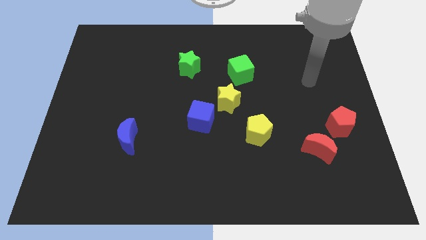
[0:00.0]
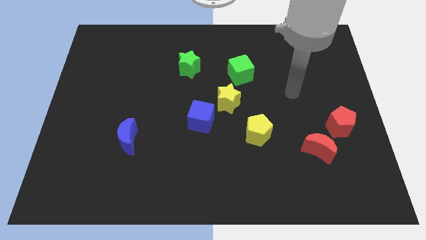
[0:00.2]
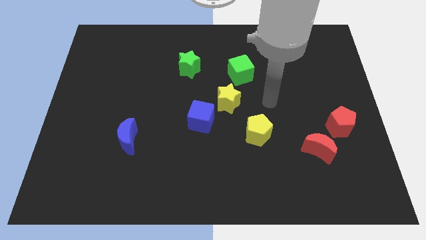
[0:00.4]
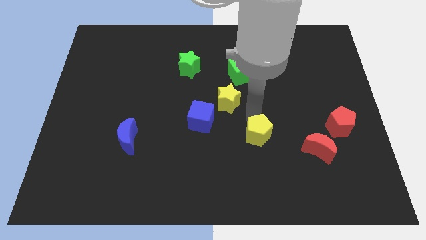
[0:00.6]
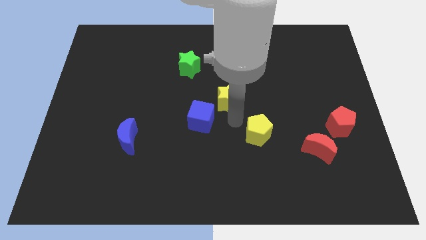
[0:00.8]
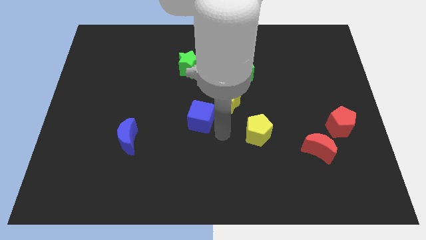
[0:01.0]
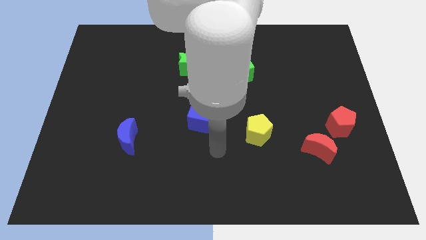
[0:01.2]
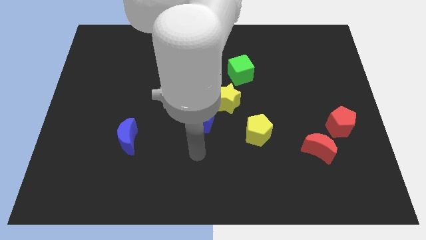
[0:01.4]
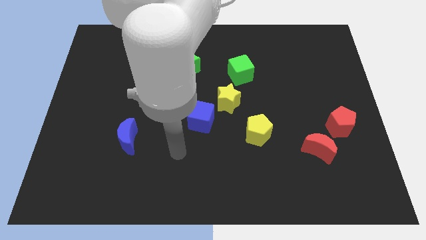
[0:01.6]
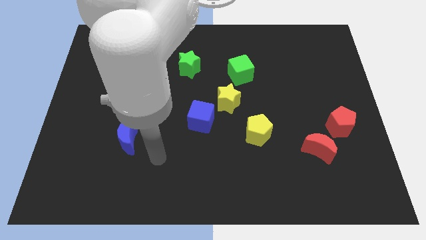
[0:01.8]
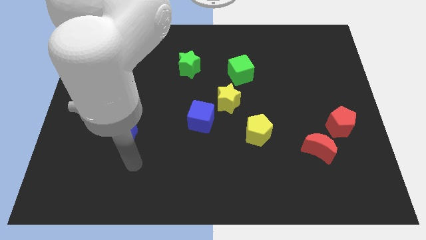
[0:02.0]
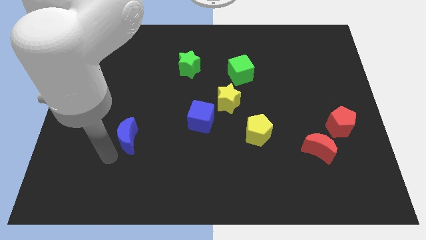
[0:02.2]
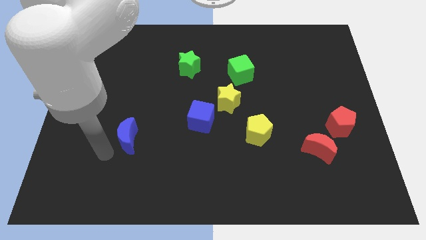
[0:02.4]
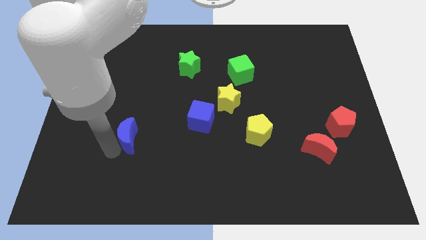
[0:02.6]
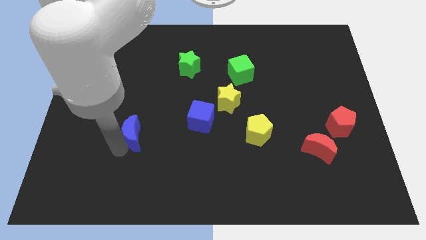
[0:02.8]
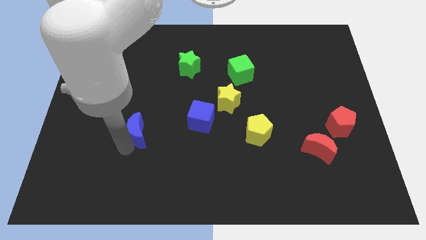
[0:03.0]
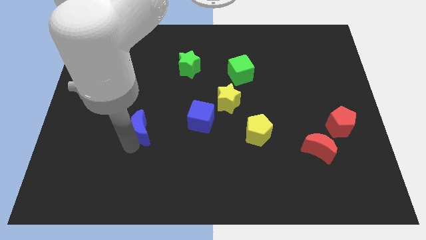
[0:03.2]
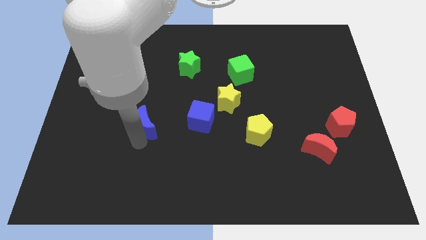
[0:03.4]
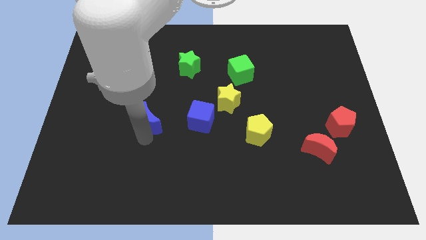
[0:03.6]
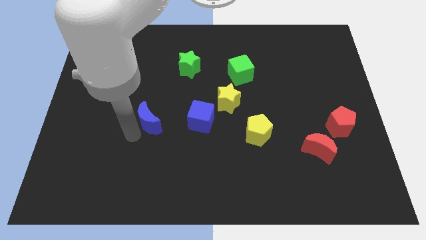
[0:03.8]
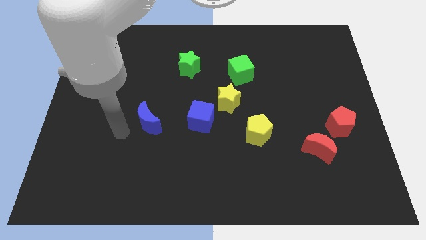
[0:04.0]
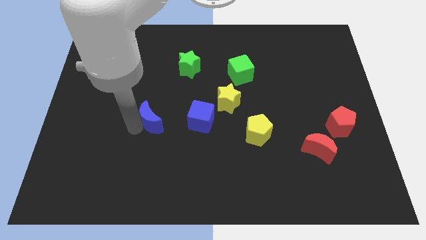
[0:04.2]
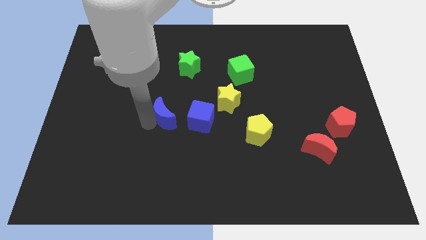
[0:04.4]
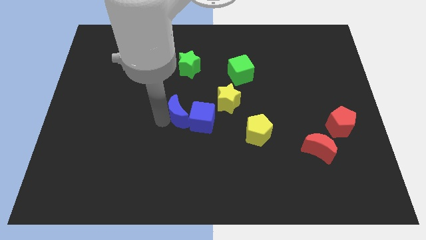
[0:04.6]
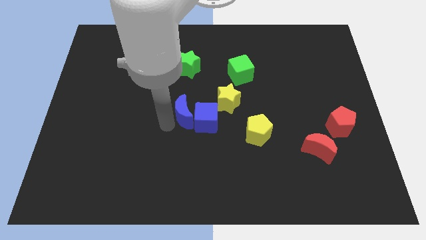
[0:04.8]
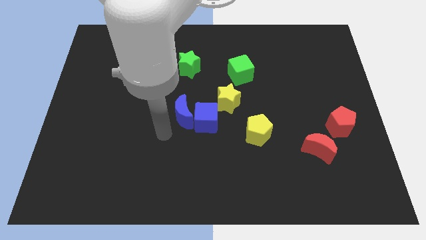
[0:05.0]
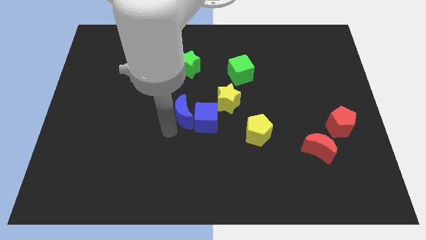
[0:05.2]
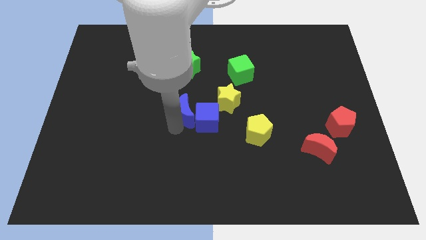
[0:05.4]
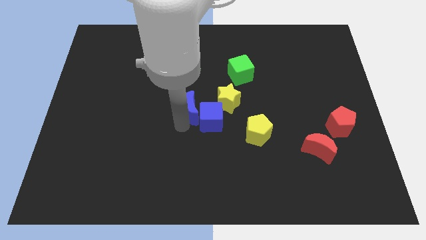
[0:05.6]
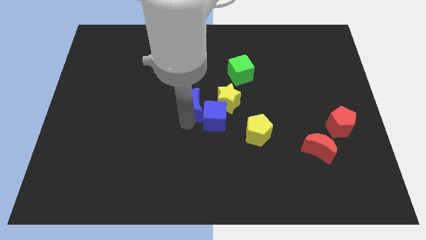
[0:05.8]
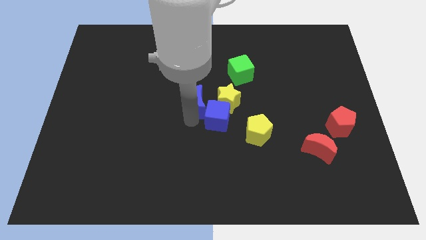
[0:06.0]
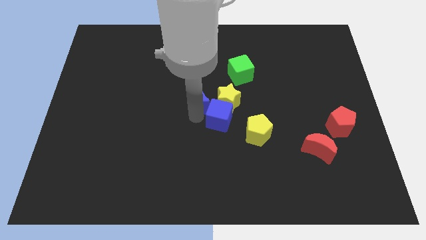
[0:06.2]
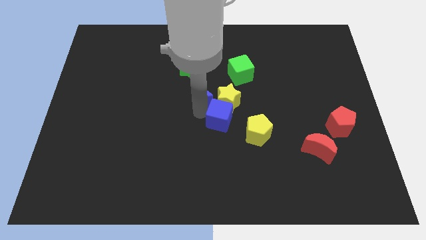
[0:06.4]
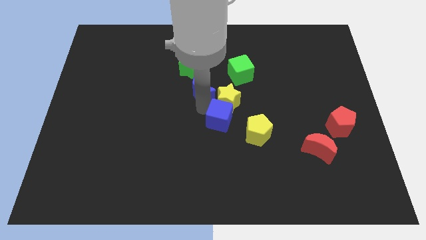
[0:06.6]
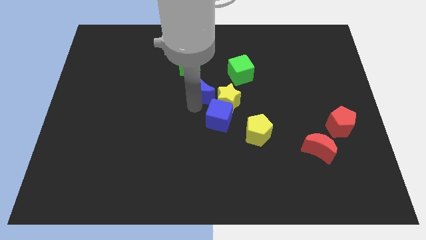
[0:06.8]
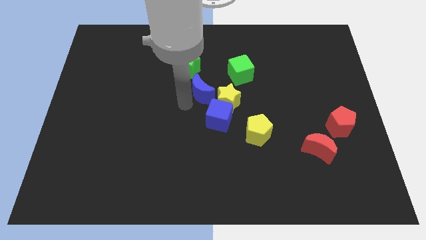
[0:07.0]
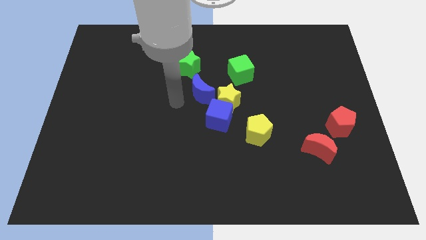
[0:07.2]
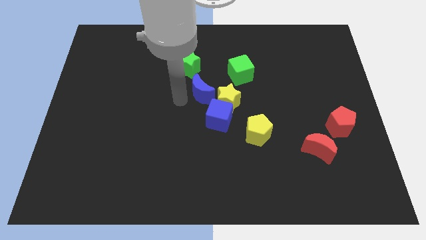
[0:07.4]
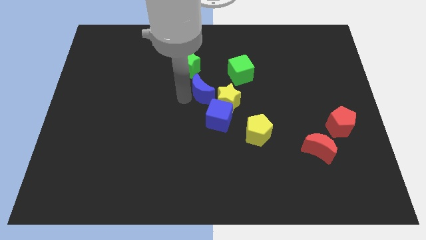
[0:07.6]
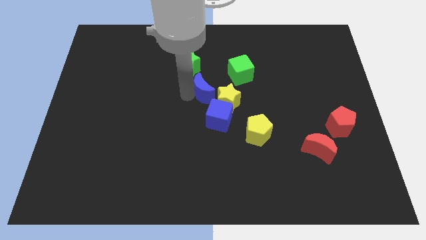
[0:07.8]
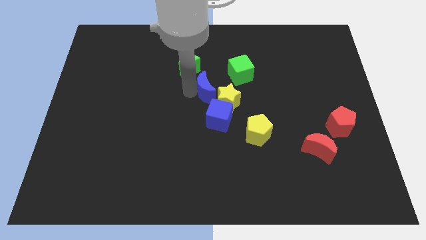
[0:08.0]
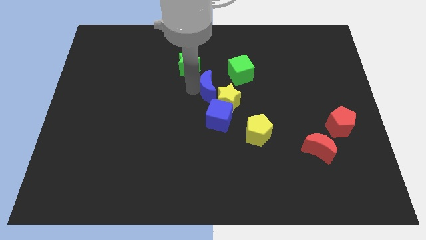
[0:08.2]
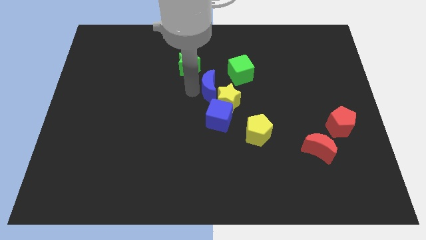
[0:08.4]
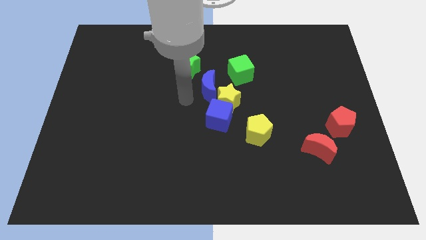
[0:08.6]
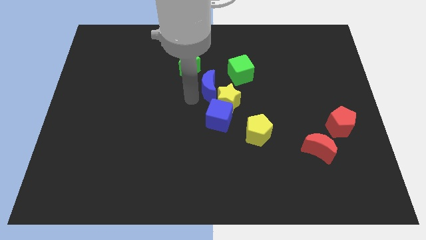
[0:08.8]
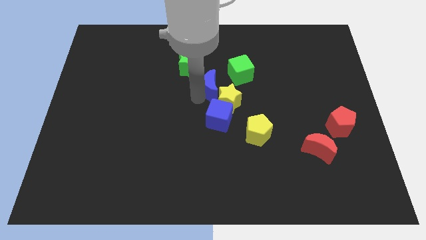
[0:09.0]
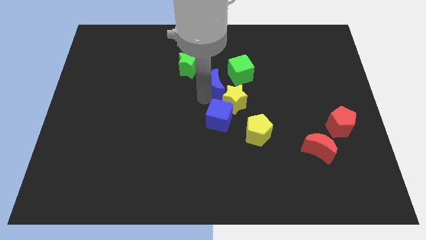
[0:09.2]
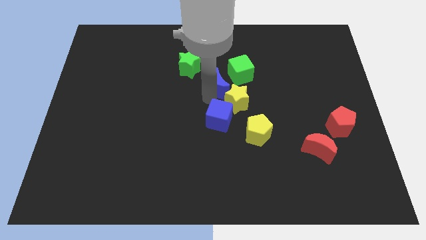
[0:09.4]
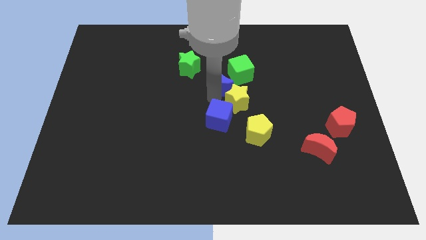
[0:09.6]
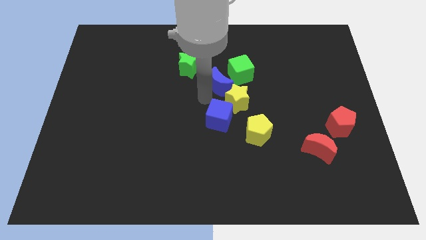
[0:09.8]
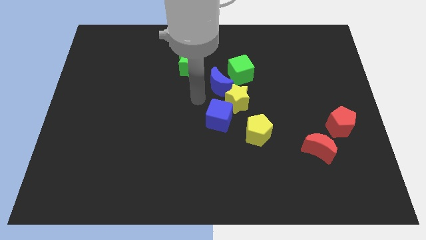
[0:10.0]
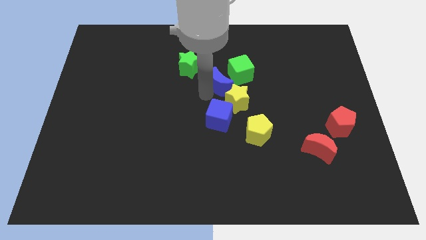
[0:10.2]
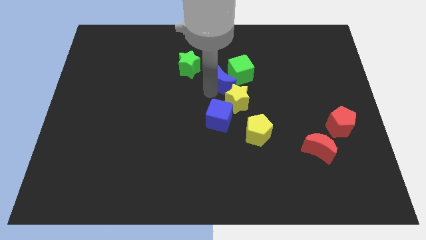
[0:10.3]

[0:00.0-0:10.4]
push the blue moon towards the green cube

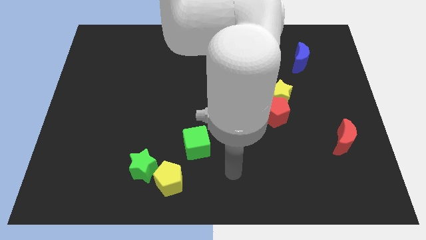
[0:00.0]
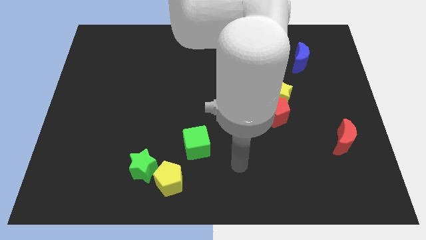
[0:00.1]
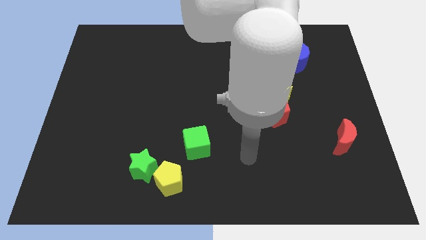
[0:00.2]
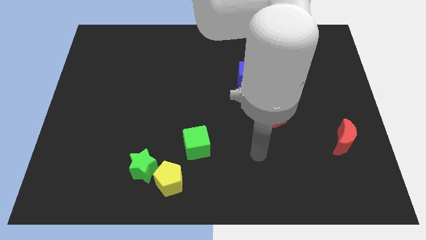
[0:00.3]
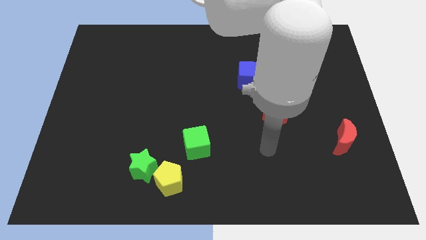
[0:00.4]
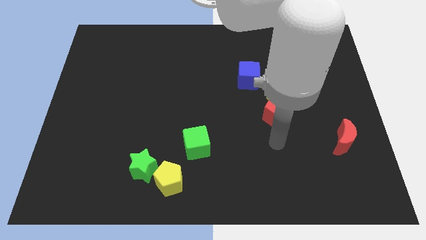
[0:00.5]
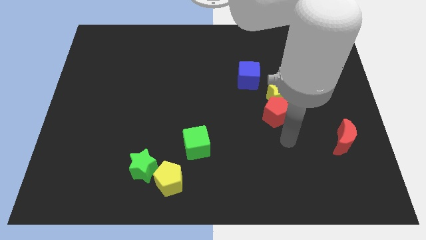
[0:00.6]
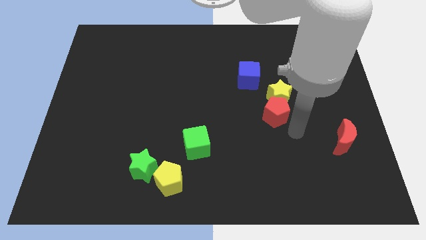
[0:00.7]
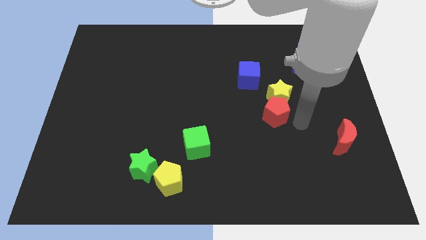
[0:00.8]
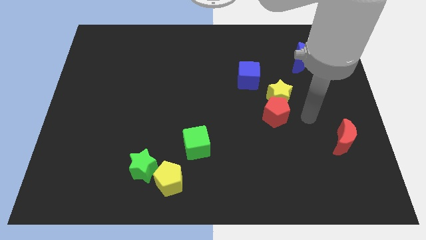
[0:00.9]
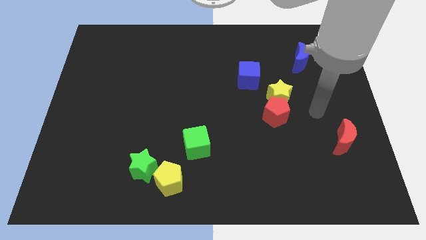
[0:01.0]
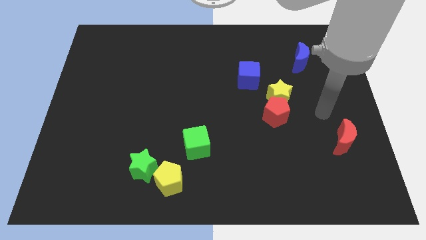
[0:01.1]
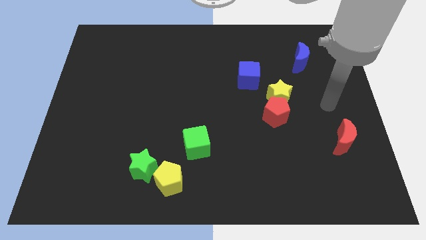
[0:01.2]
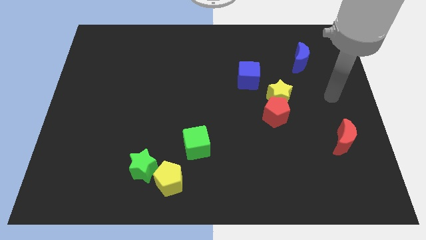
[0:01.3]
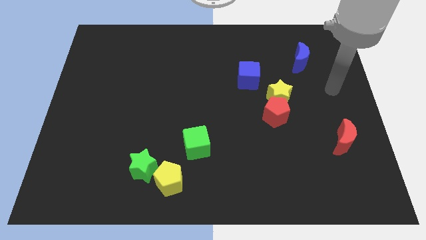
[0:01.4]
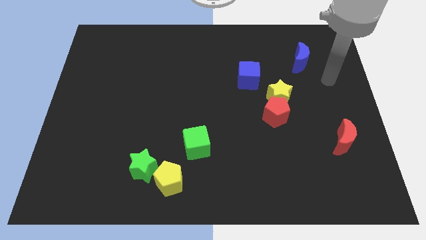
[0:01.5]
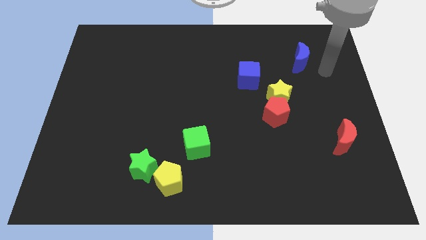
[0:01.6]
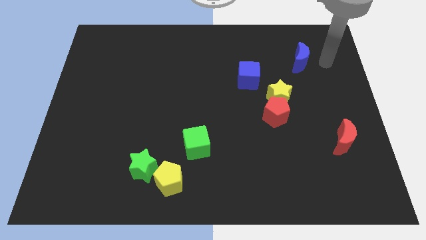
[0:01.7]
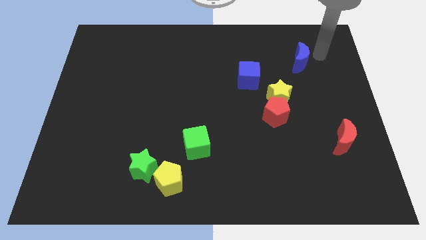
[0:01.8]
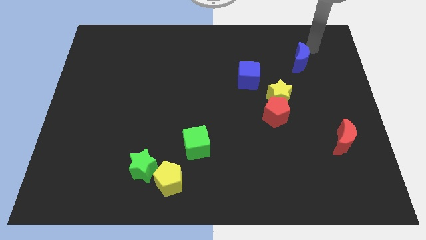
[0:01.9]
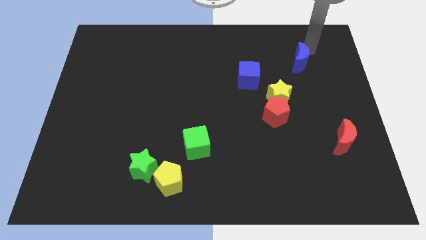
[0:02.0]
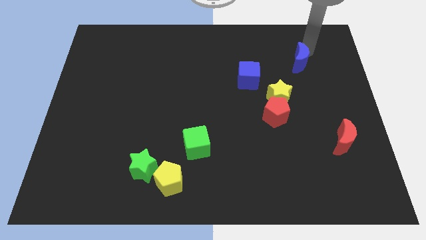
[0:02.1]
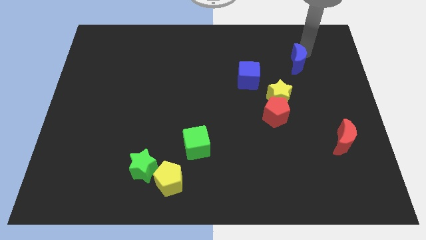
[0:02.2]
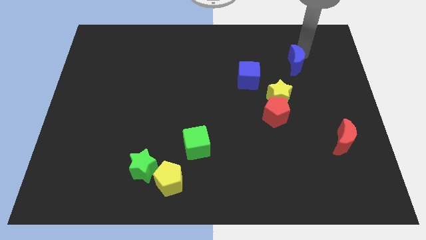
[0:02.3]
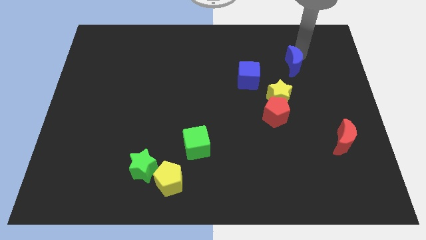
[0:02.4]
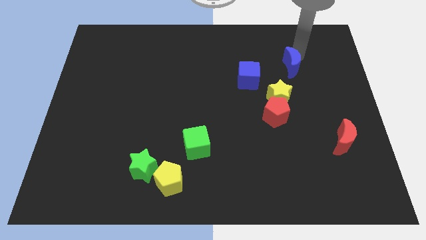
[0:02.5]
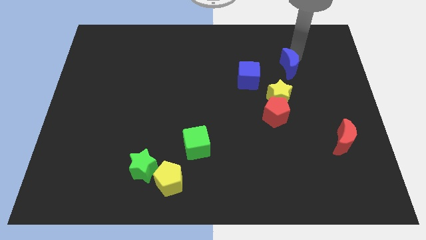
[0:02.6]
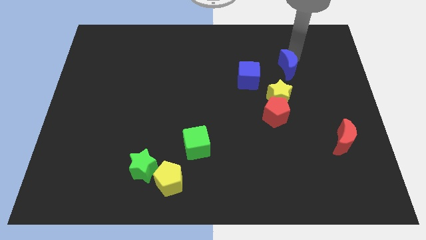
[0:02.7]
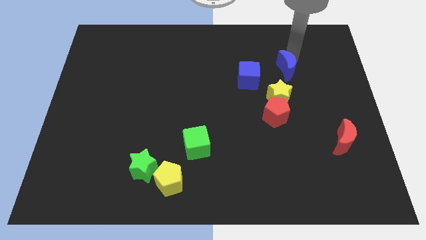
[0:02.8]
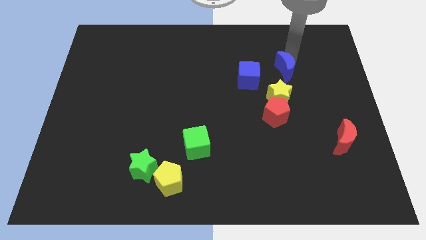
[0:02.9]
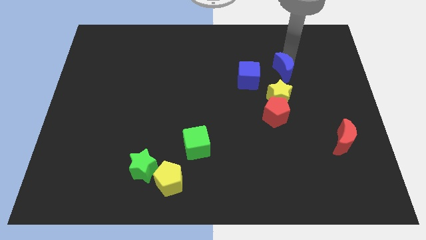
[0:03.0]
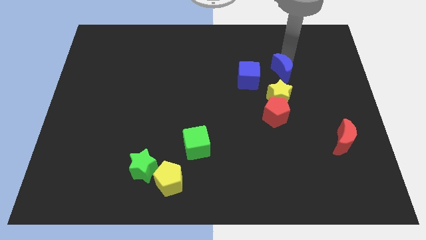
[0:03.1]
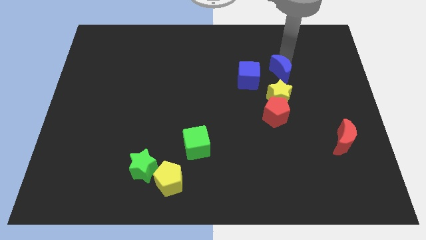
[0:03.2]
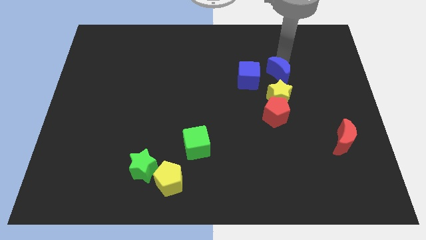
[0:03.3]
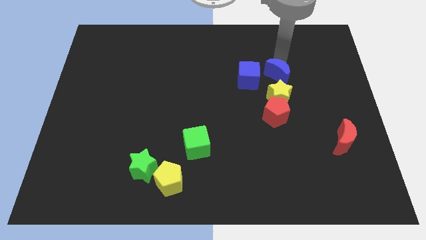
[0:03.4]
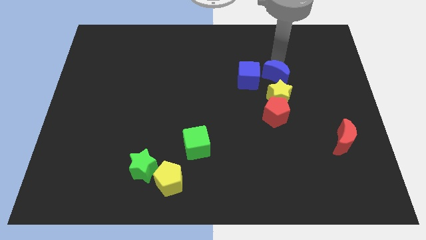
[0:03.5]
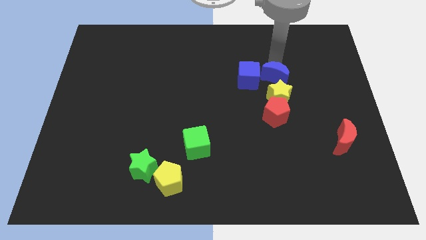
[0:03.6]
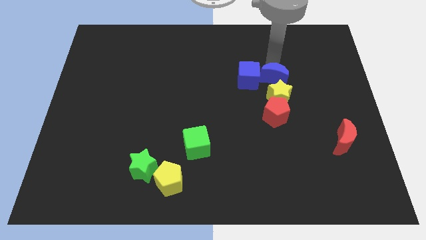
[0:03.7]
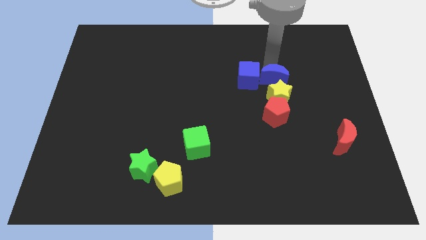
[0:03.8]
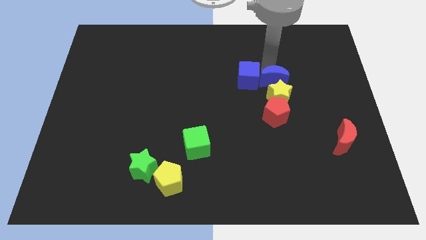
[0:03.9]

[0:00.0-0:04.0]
slide the blue moon close to the yellow star
